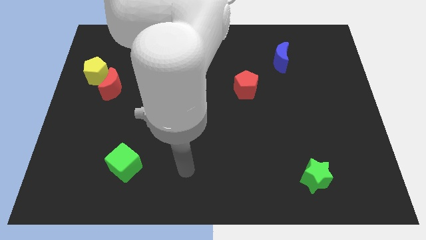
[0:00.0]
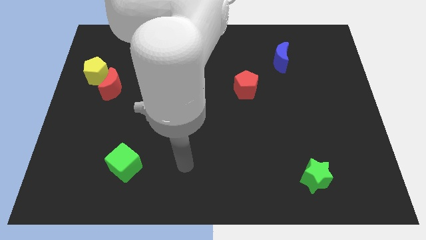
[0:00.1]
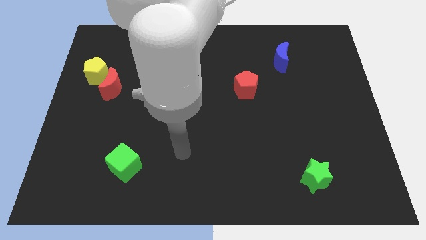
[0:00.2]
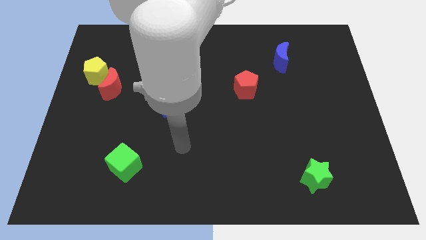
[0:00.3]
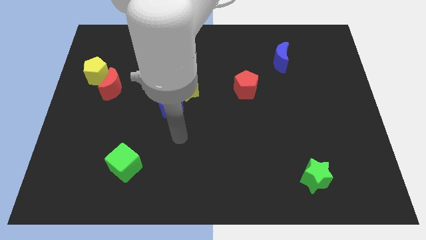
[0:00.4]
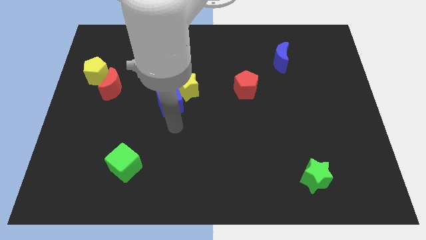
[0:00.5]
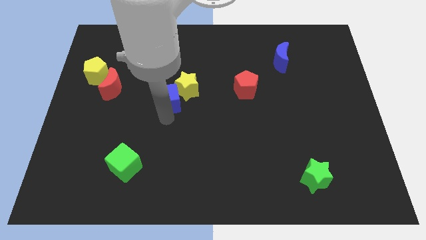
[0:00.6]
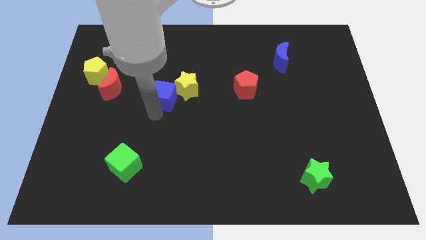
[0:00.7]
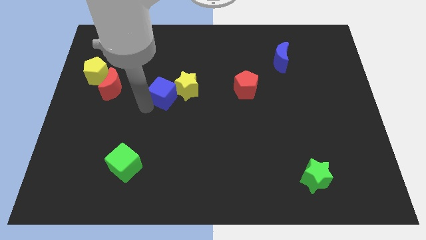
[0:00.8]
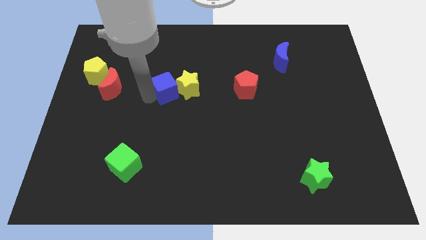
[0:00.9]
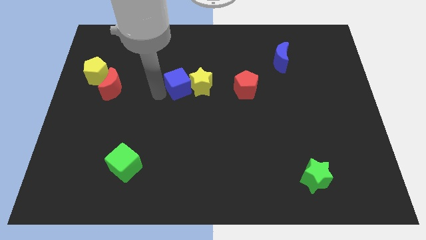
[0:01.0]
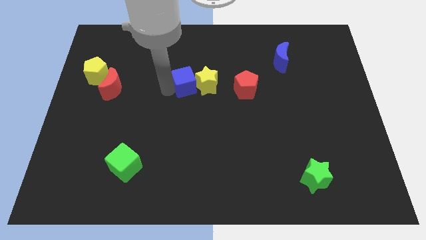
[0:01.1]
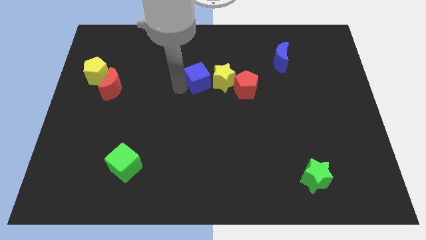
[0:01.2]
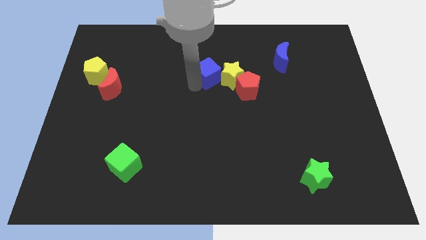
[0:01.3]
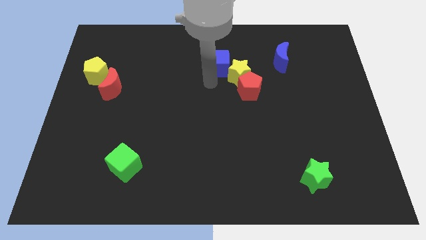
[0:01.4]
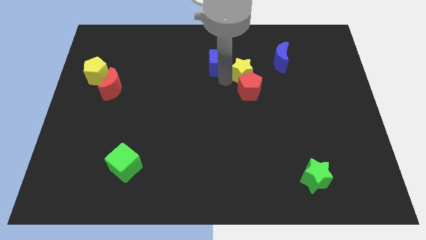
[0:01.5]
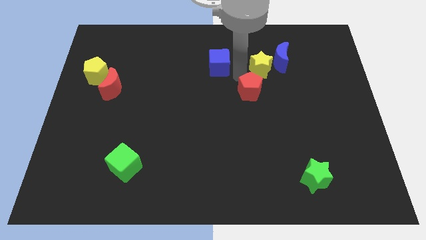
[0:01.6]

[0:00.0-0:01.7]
separate the blue cube from the yellow star

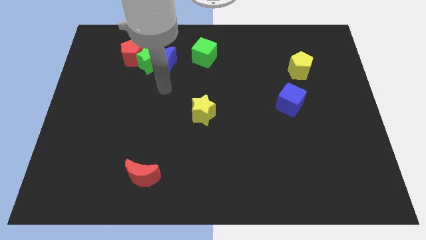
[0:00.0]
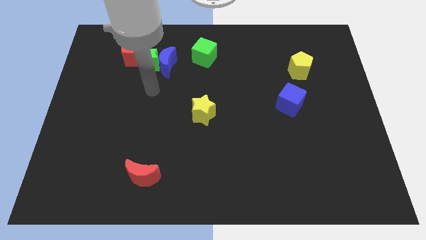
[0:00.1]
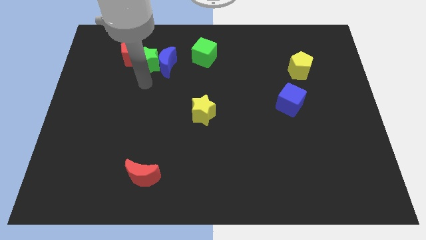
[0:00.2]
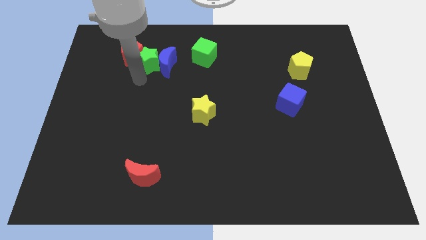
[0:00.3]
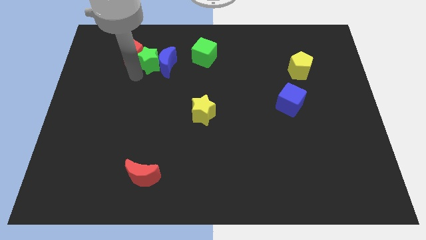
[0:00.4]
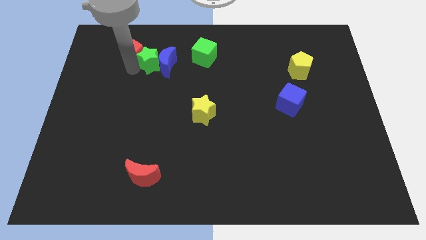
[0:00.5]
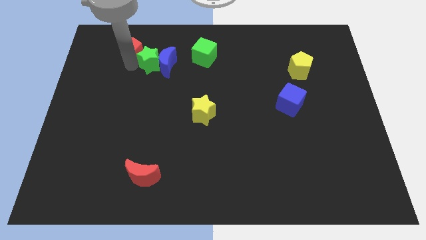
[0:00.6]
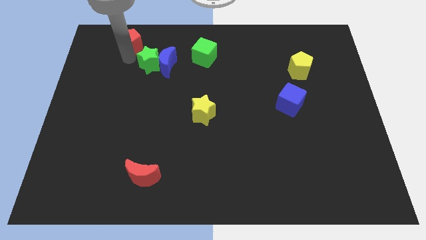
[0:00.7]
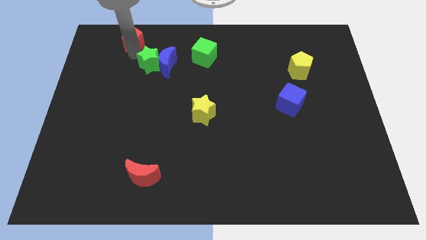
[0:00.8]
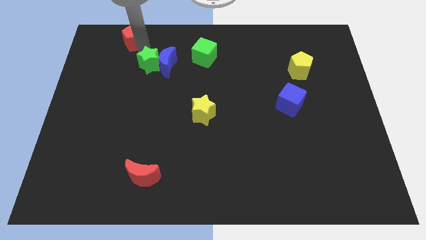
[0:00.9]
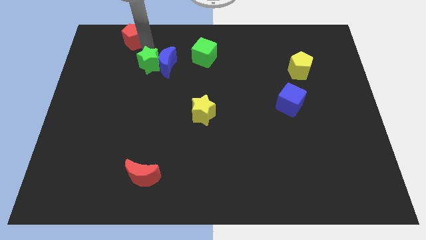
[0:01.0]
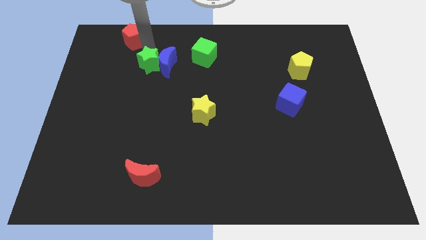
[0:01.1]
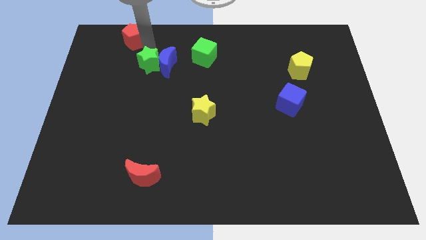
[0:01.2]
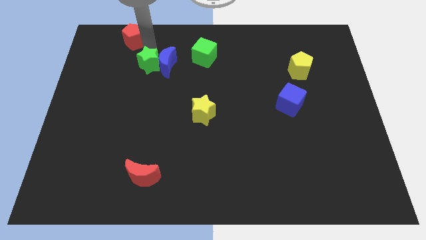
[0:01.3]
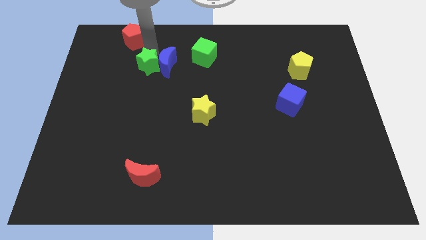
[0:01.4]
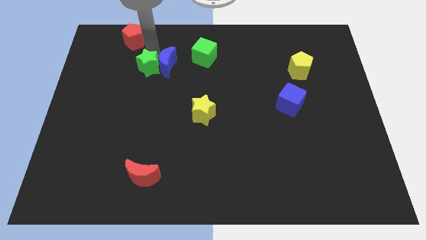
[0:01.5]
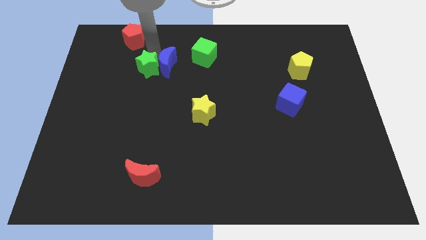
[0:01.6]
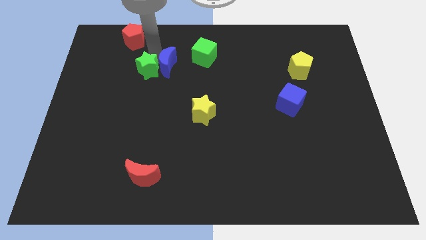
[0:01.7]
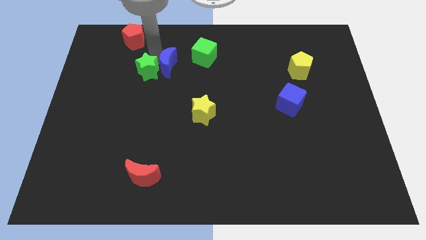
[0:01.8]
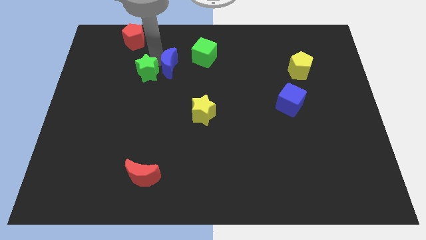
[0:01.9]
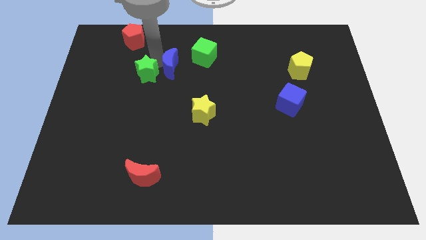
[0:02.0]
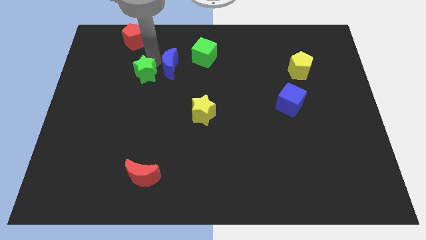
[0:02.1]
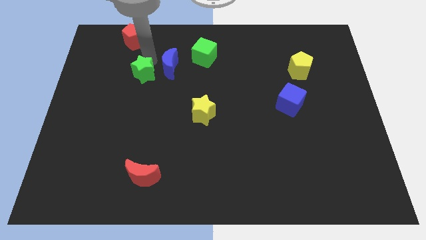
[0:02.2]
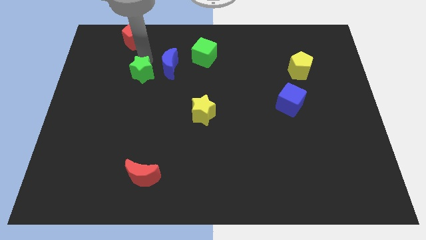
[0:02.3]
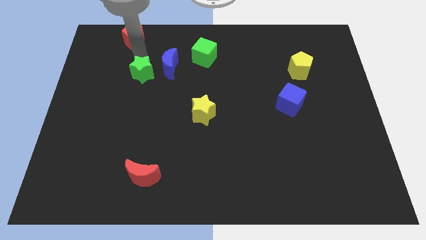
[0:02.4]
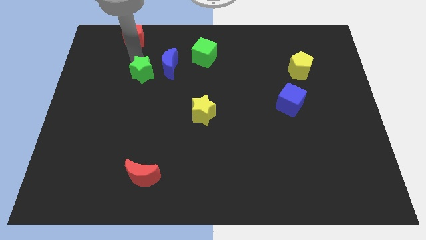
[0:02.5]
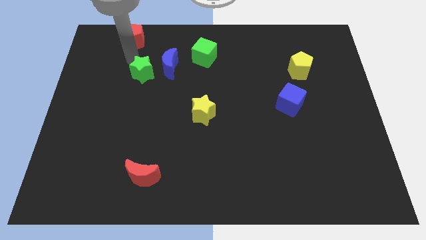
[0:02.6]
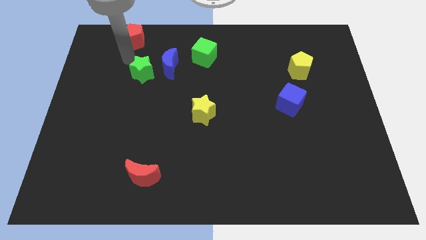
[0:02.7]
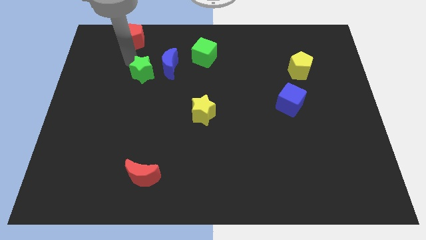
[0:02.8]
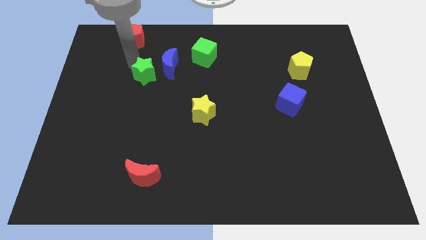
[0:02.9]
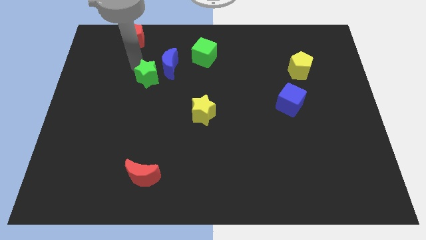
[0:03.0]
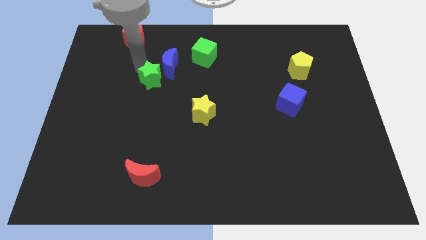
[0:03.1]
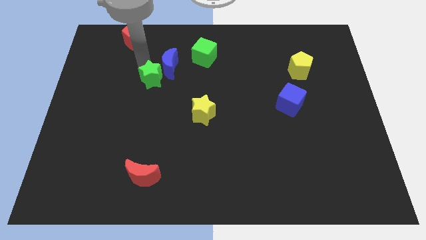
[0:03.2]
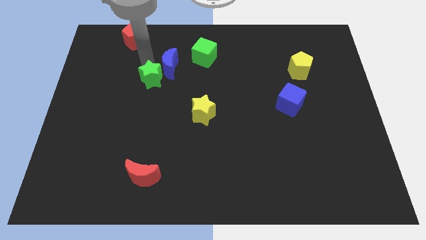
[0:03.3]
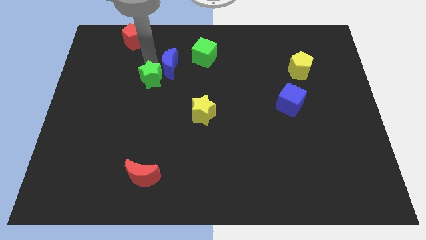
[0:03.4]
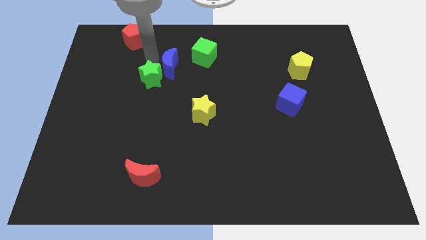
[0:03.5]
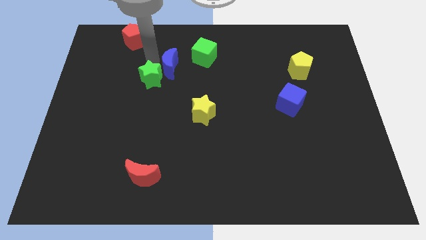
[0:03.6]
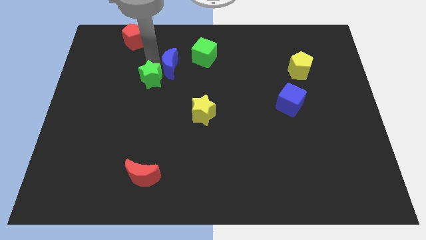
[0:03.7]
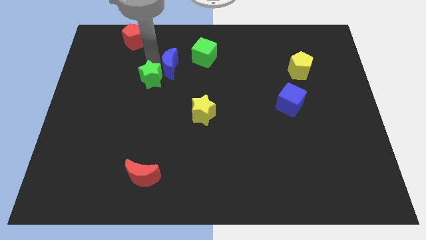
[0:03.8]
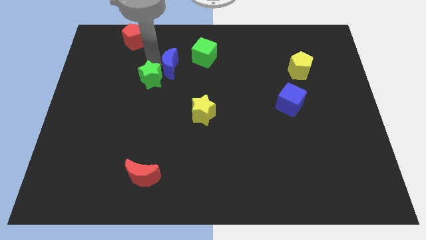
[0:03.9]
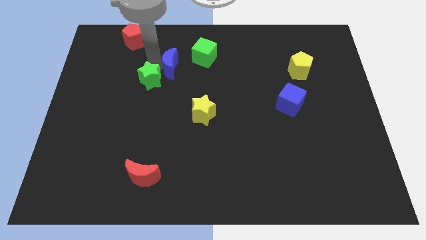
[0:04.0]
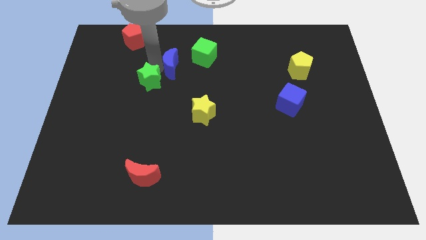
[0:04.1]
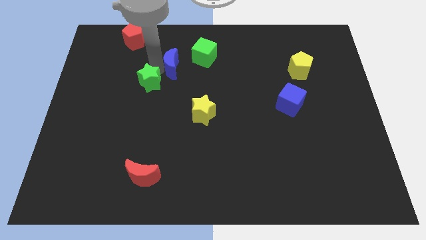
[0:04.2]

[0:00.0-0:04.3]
move the green star away from the blue moon and red pentagon

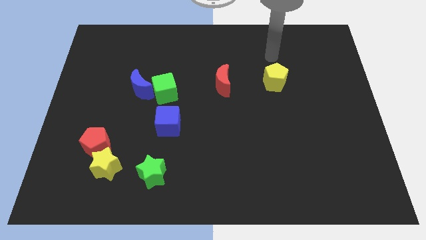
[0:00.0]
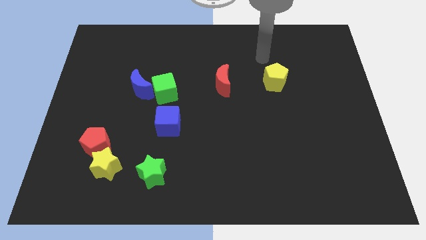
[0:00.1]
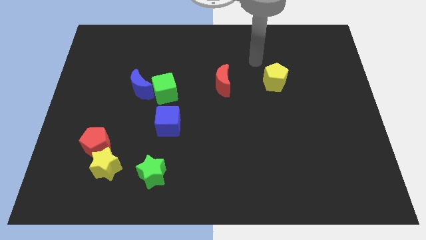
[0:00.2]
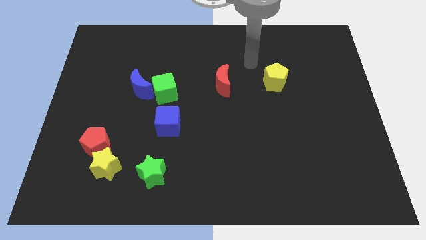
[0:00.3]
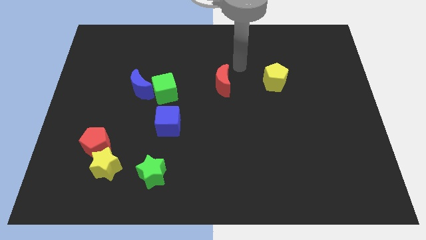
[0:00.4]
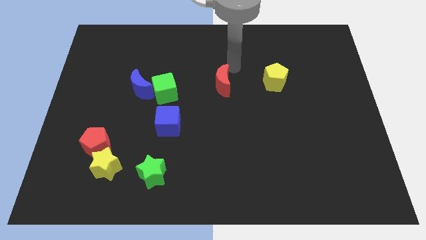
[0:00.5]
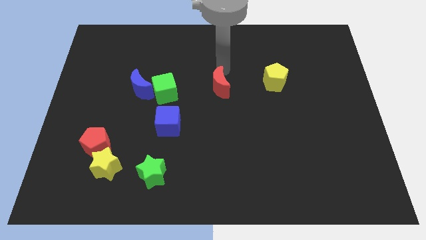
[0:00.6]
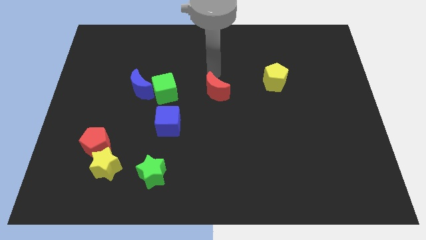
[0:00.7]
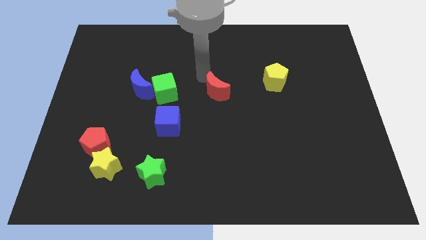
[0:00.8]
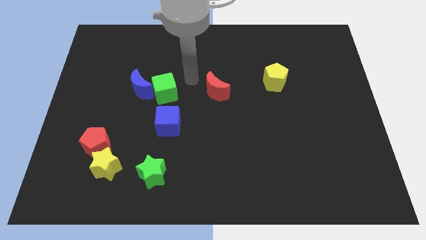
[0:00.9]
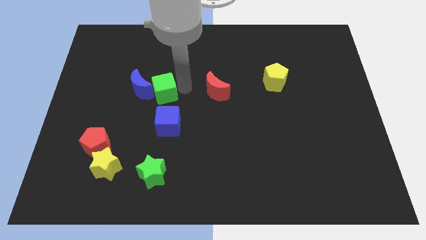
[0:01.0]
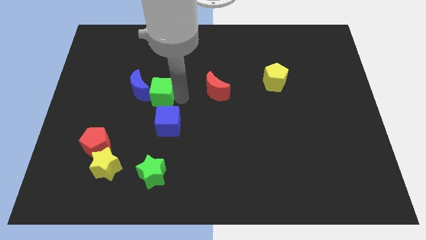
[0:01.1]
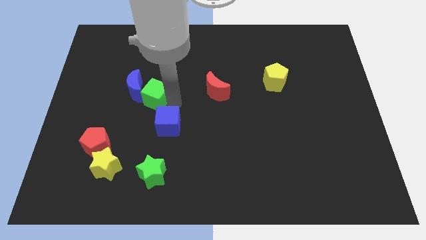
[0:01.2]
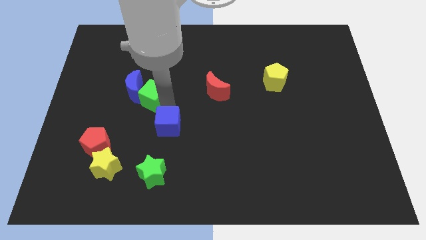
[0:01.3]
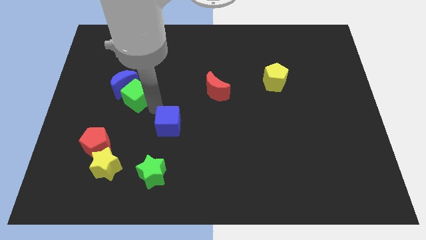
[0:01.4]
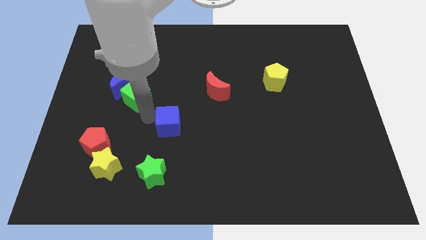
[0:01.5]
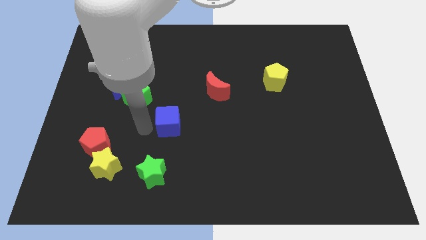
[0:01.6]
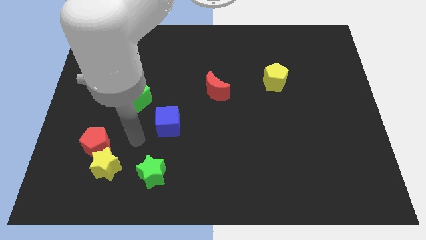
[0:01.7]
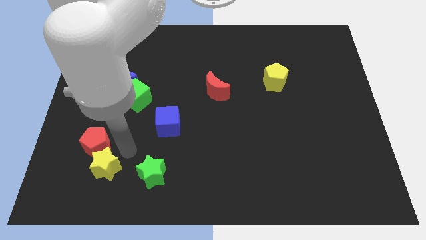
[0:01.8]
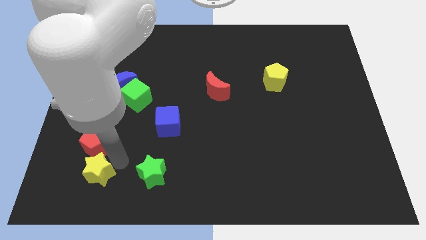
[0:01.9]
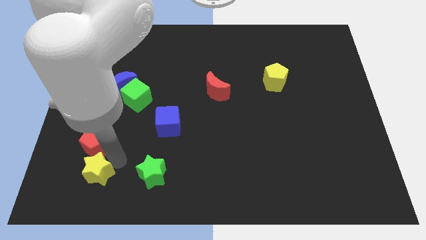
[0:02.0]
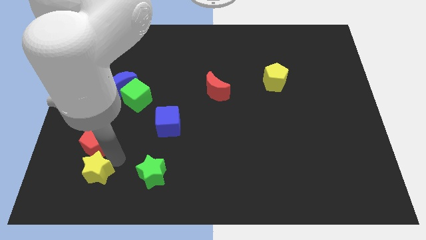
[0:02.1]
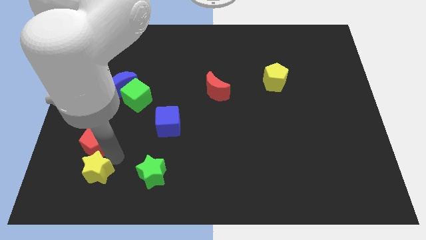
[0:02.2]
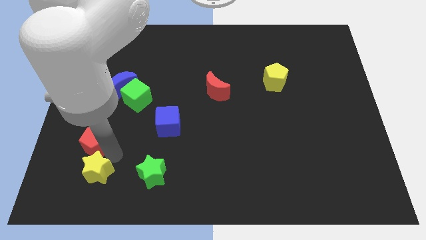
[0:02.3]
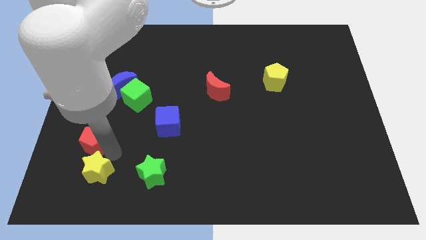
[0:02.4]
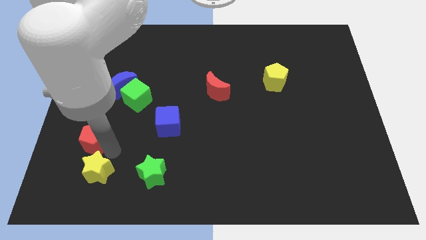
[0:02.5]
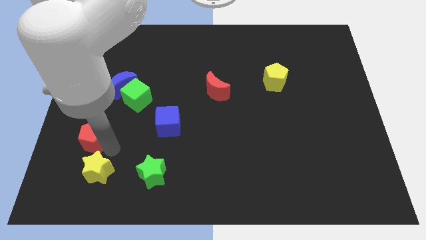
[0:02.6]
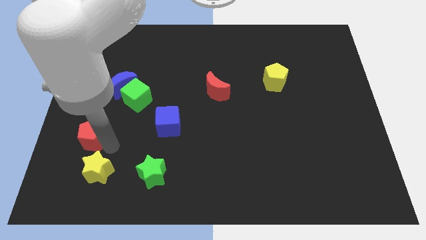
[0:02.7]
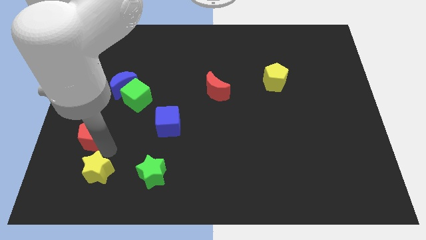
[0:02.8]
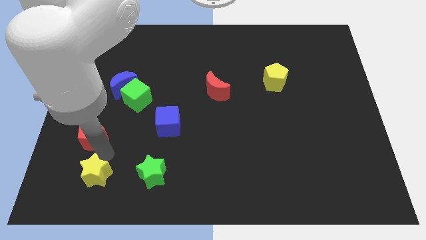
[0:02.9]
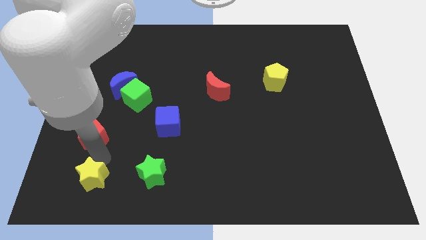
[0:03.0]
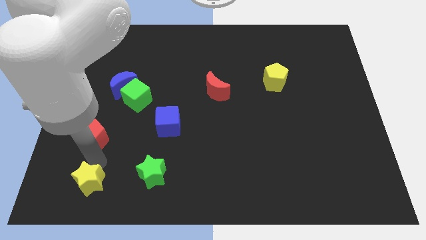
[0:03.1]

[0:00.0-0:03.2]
pull the red pentagon apart from the yellow star

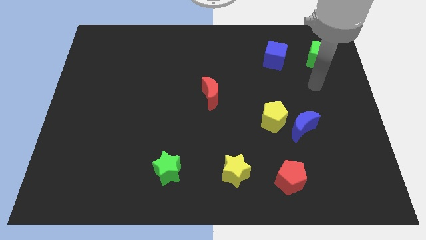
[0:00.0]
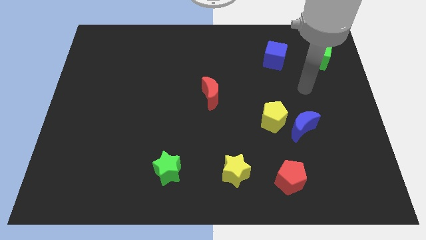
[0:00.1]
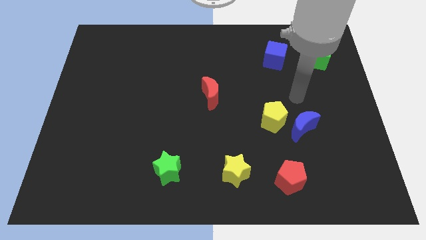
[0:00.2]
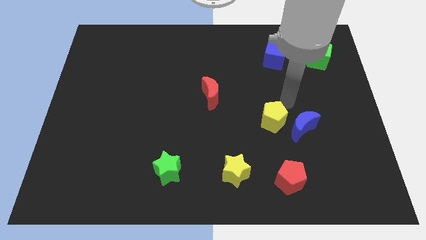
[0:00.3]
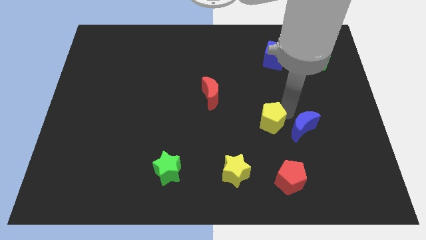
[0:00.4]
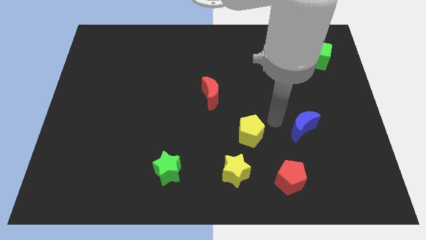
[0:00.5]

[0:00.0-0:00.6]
pull the blue moon apart from the yellow pentagon
